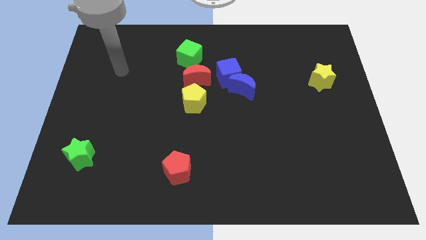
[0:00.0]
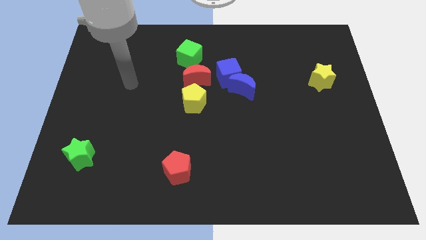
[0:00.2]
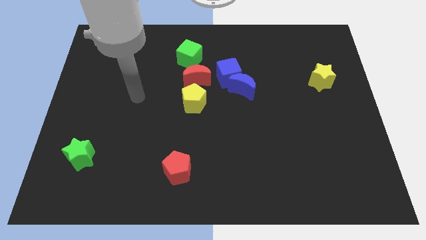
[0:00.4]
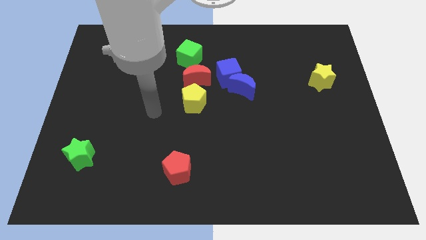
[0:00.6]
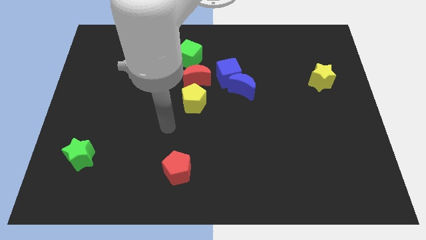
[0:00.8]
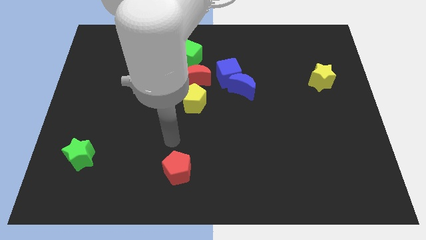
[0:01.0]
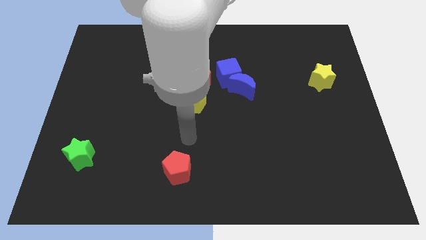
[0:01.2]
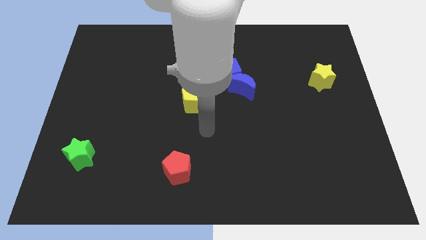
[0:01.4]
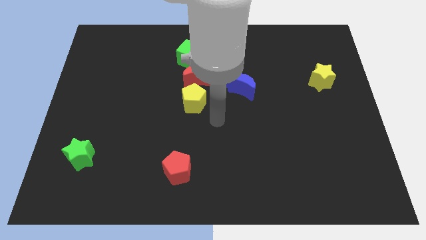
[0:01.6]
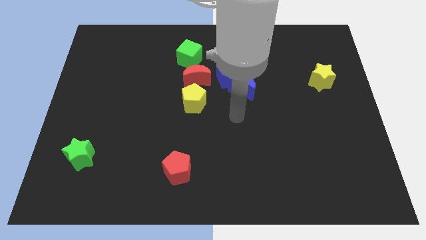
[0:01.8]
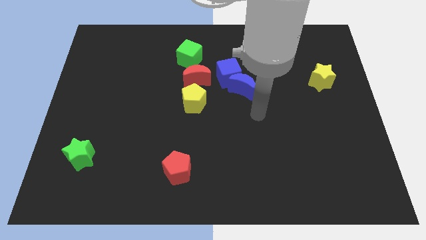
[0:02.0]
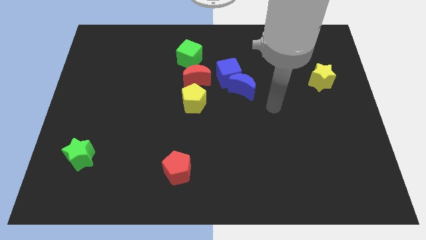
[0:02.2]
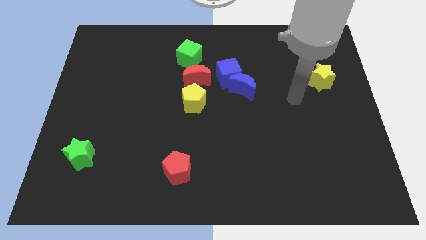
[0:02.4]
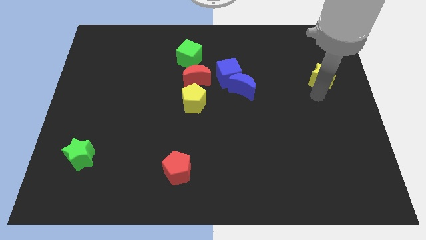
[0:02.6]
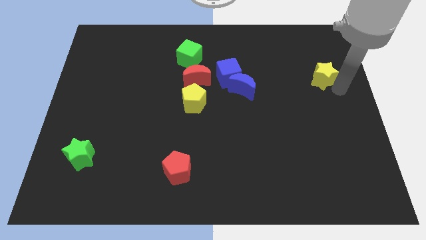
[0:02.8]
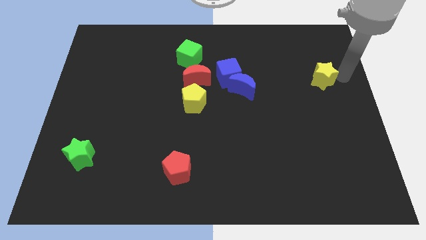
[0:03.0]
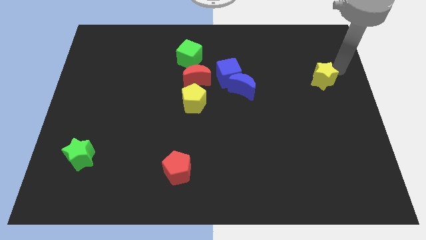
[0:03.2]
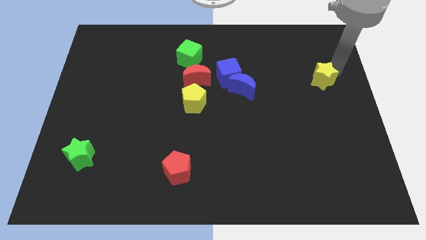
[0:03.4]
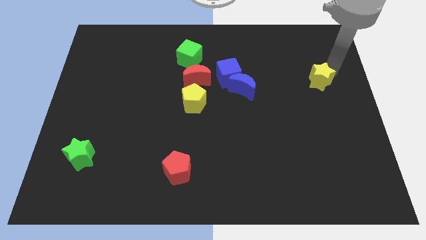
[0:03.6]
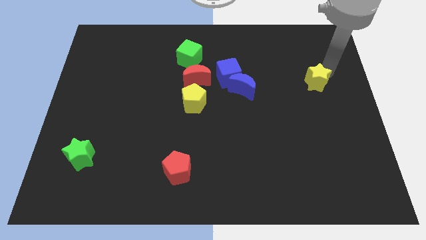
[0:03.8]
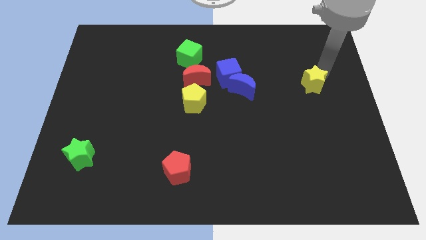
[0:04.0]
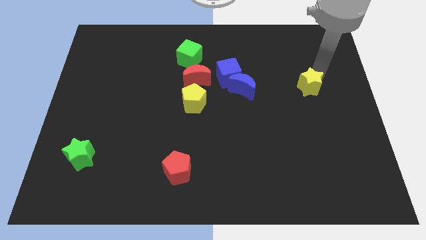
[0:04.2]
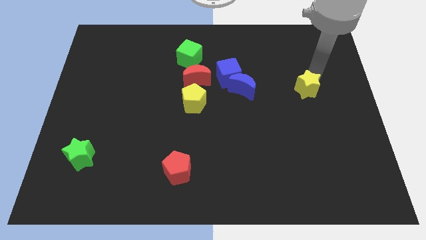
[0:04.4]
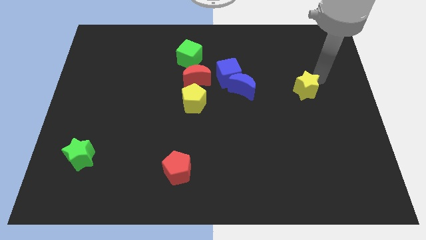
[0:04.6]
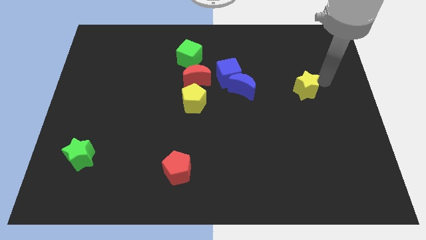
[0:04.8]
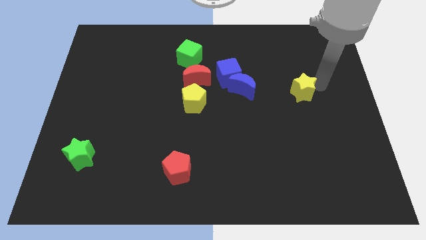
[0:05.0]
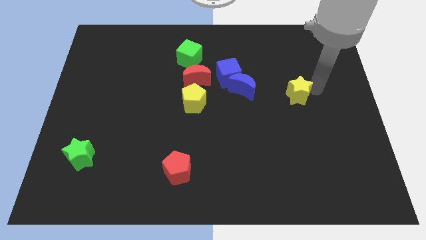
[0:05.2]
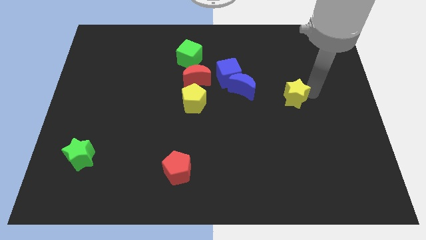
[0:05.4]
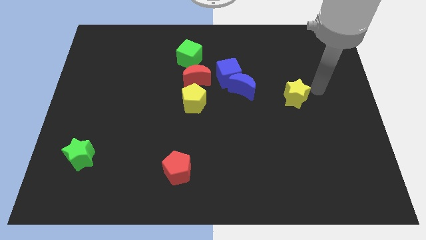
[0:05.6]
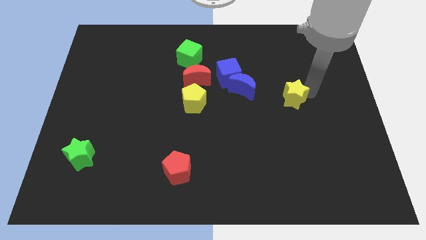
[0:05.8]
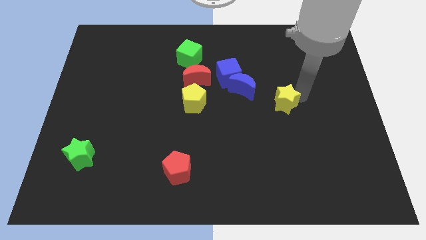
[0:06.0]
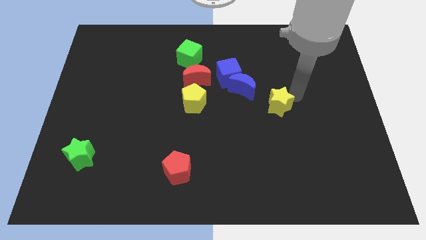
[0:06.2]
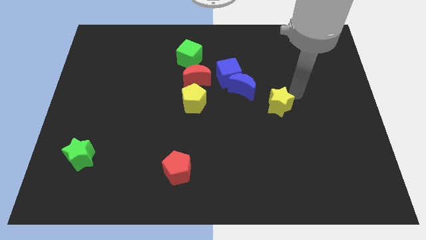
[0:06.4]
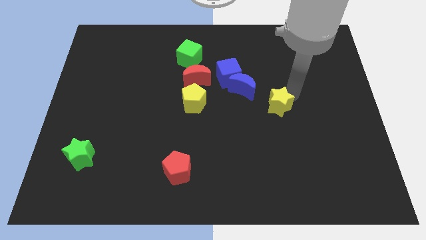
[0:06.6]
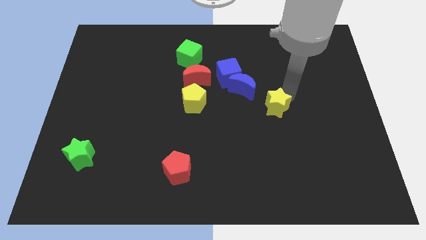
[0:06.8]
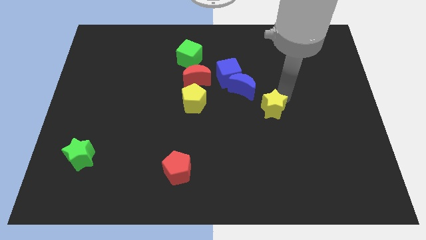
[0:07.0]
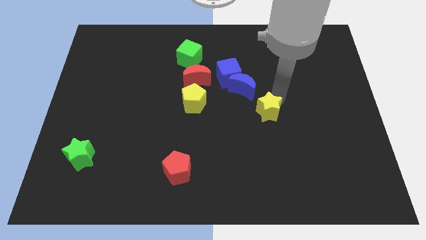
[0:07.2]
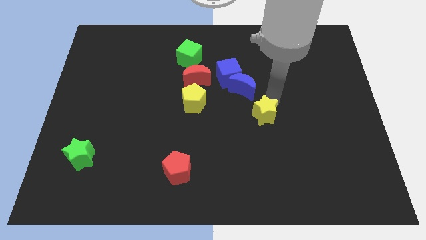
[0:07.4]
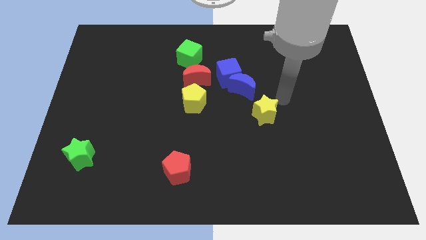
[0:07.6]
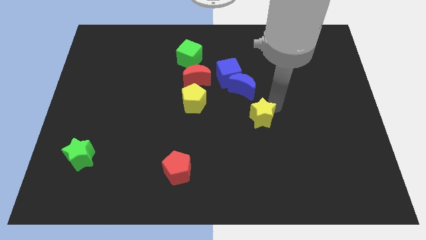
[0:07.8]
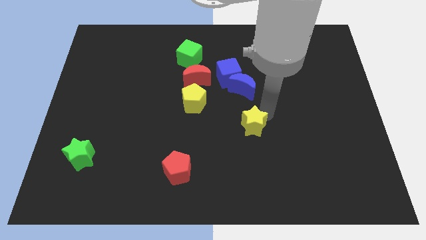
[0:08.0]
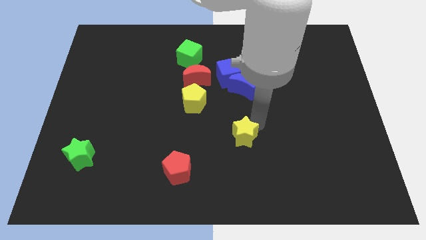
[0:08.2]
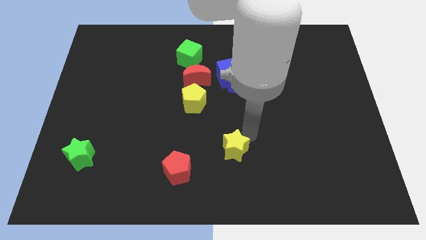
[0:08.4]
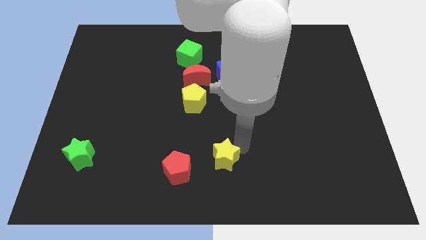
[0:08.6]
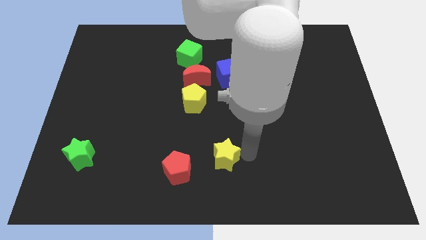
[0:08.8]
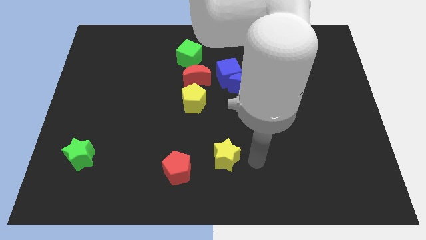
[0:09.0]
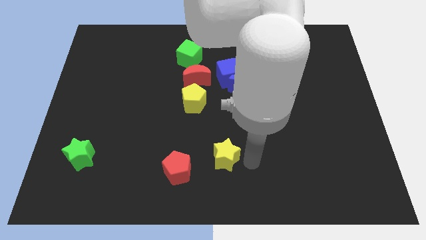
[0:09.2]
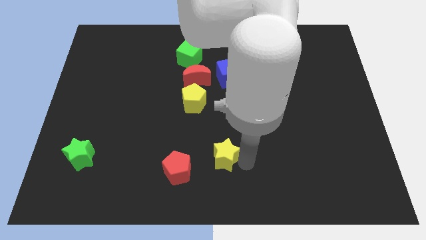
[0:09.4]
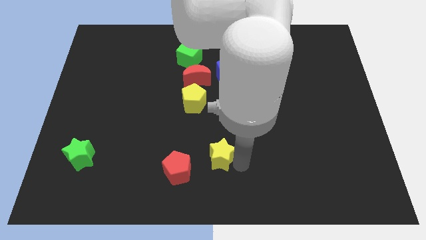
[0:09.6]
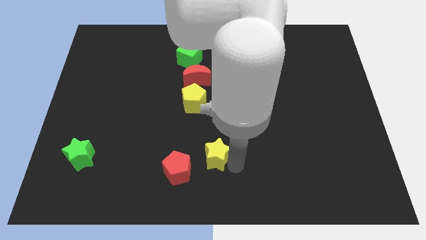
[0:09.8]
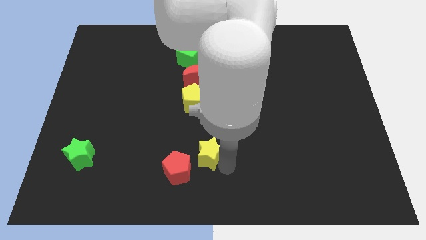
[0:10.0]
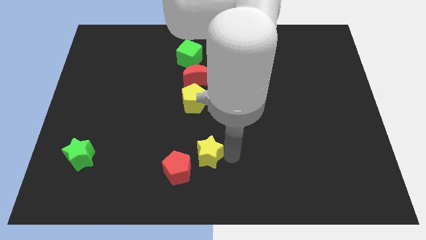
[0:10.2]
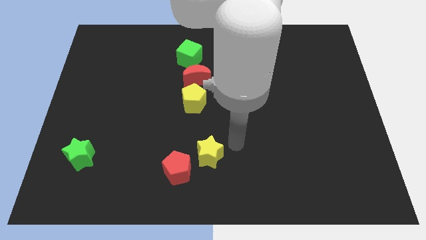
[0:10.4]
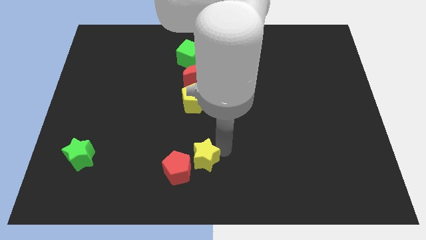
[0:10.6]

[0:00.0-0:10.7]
slide the yellow star close to the red pentagon

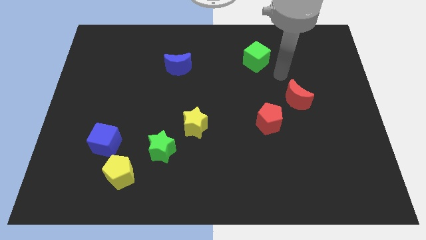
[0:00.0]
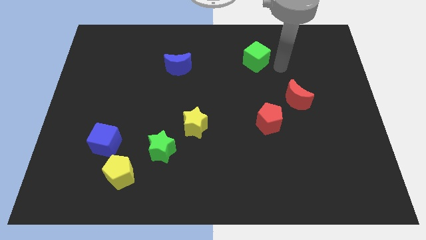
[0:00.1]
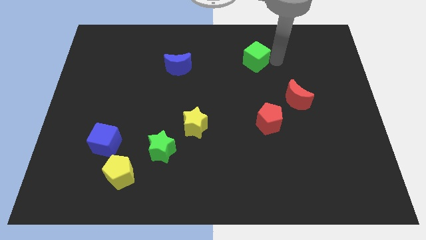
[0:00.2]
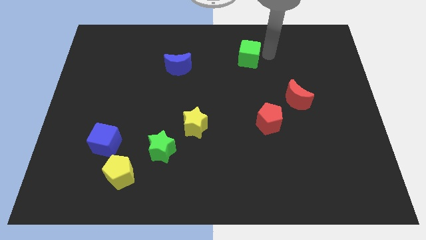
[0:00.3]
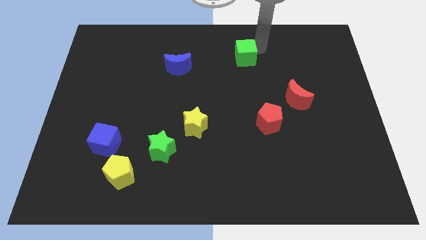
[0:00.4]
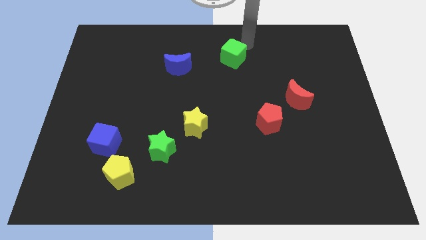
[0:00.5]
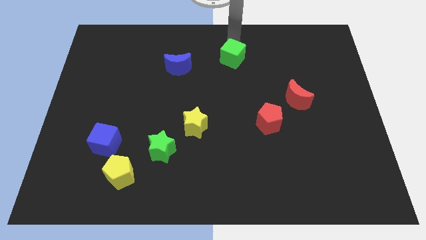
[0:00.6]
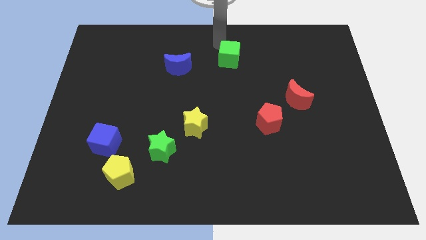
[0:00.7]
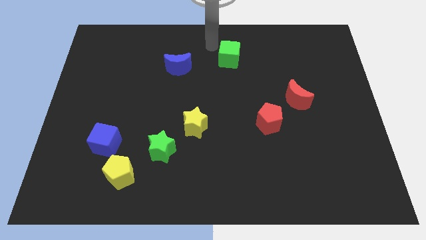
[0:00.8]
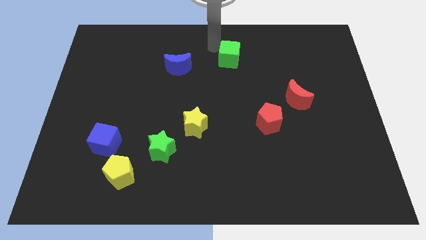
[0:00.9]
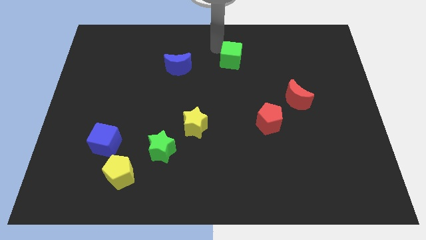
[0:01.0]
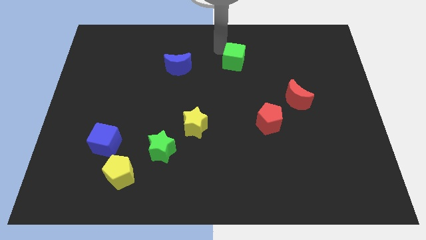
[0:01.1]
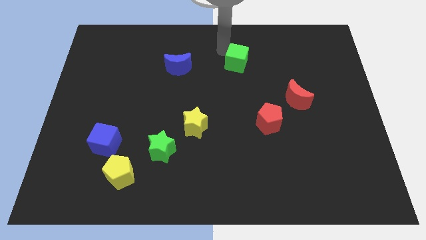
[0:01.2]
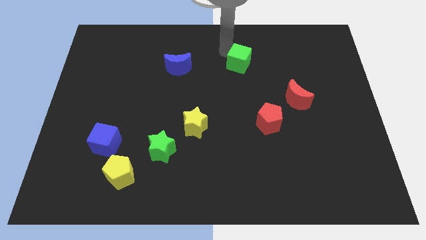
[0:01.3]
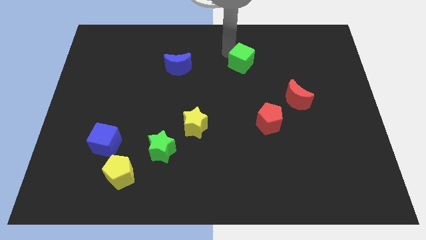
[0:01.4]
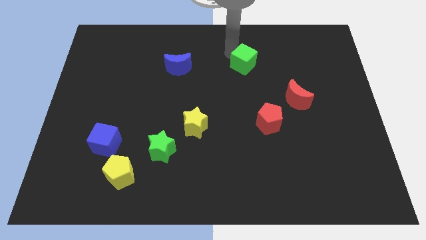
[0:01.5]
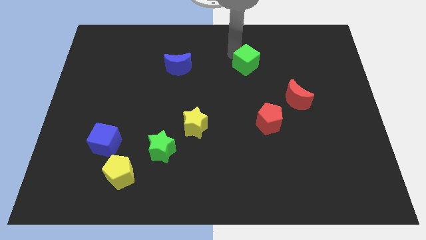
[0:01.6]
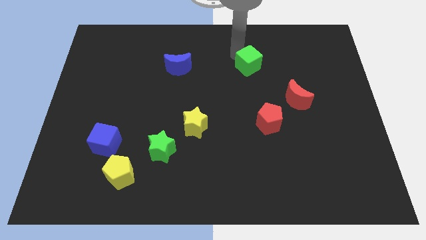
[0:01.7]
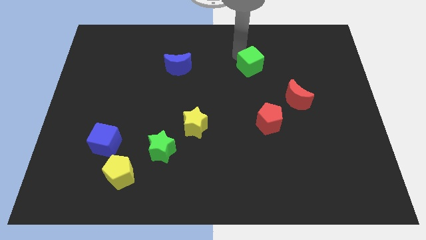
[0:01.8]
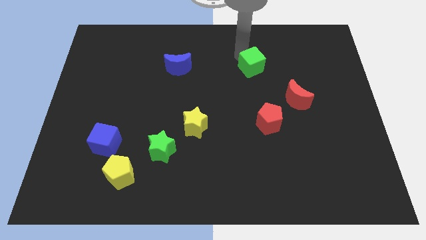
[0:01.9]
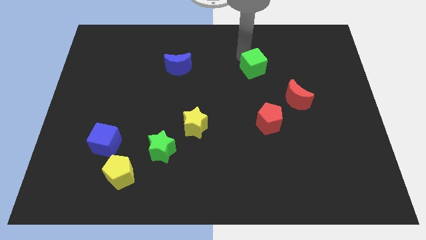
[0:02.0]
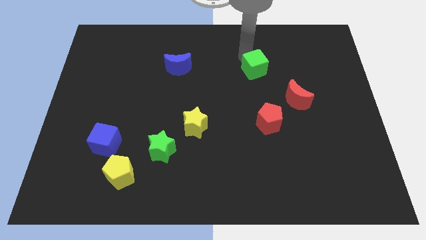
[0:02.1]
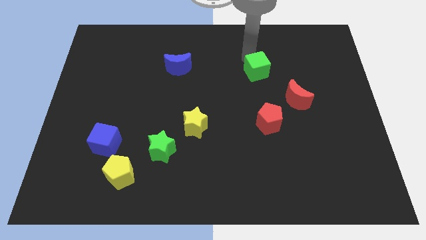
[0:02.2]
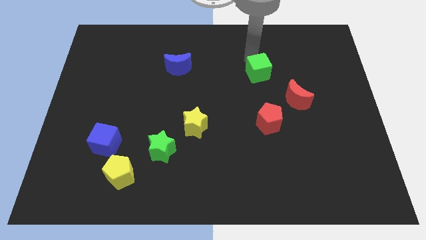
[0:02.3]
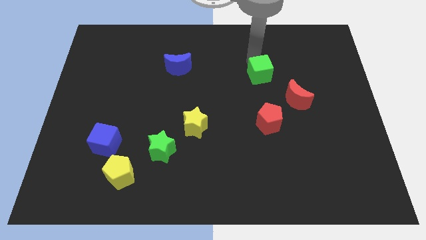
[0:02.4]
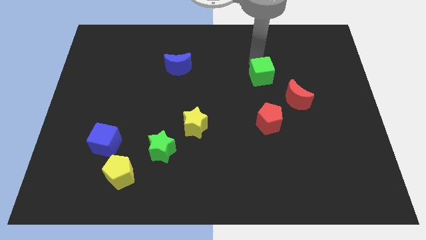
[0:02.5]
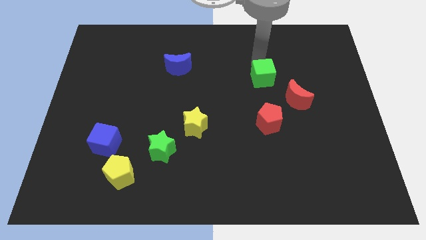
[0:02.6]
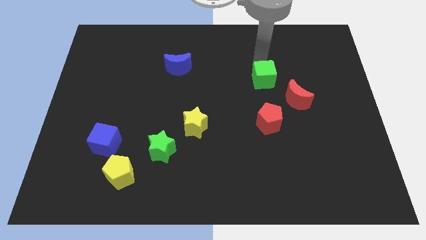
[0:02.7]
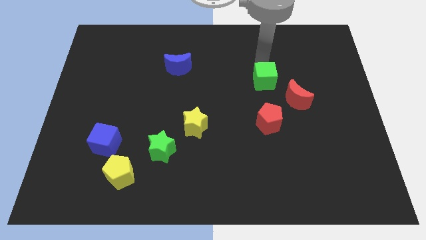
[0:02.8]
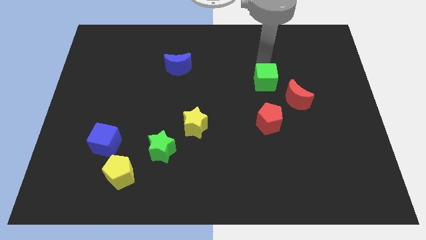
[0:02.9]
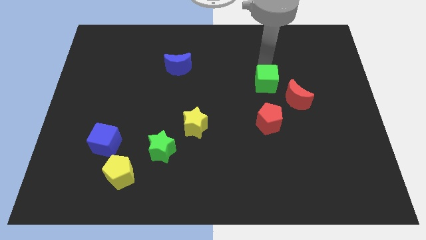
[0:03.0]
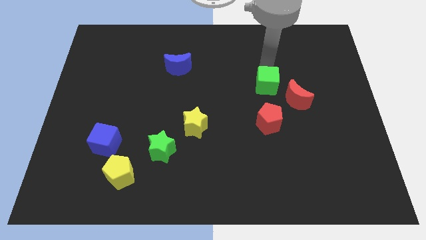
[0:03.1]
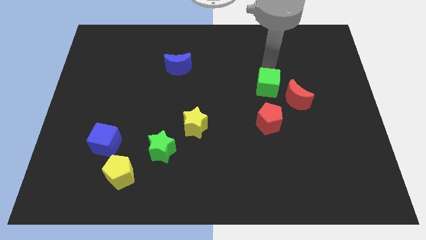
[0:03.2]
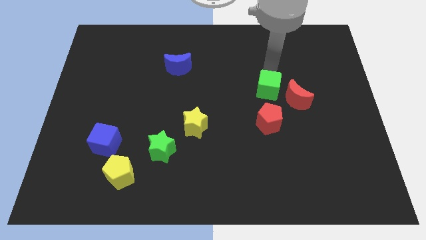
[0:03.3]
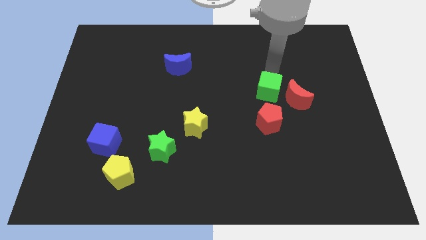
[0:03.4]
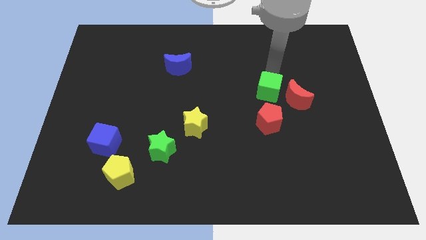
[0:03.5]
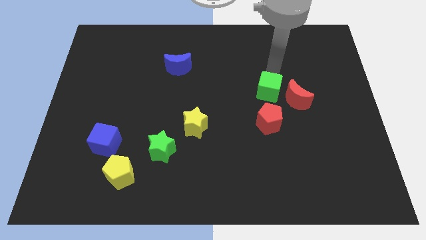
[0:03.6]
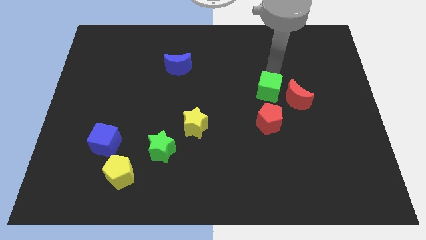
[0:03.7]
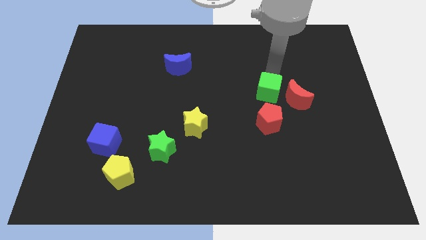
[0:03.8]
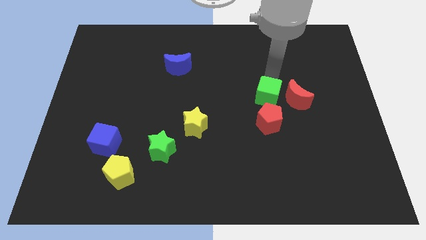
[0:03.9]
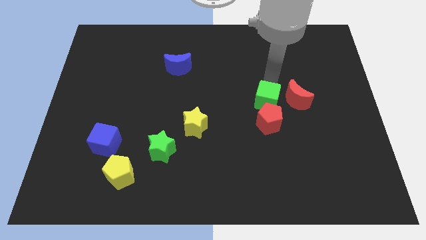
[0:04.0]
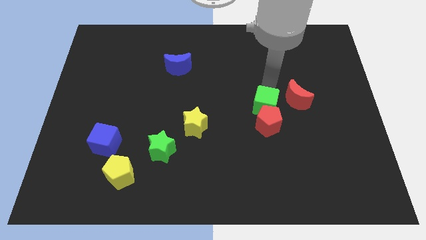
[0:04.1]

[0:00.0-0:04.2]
slide the green cube towards the red pentagon
